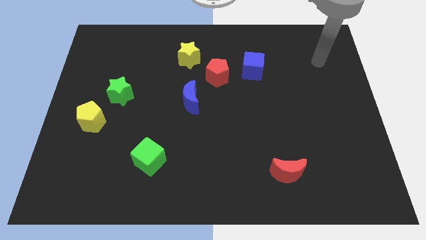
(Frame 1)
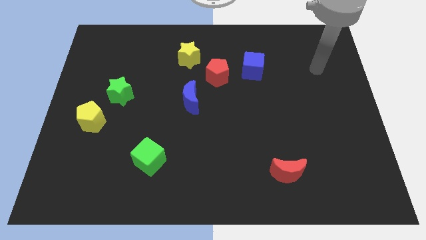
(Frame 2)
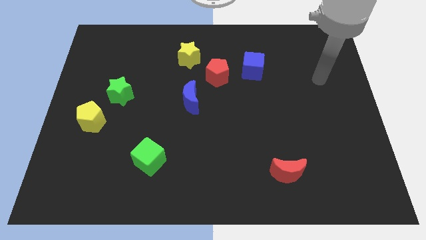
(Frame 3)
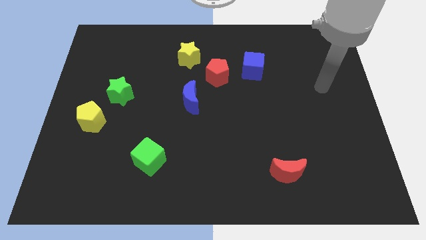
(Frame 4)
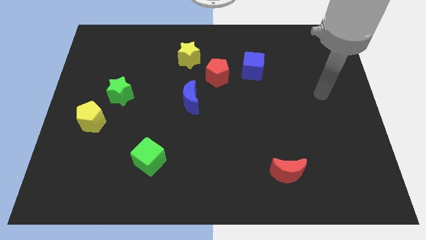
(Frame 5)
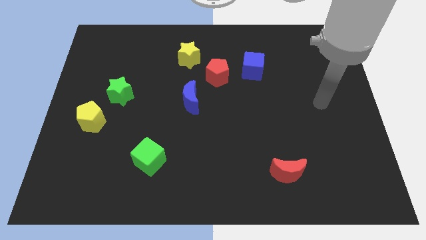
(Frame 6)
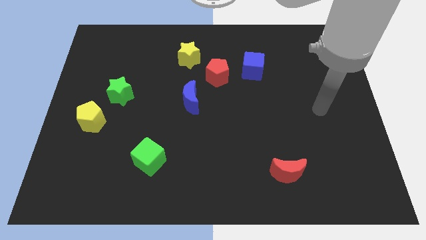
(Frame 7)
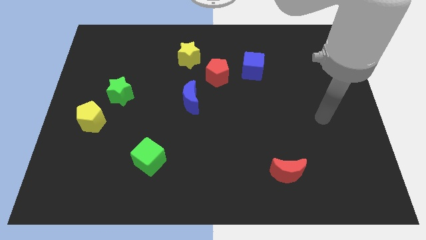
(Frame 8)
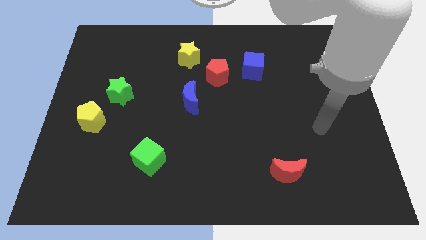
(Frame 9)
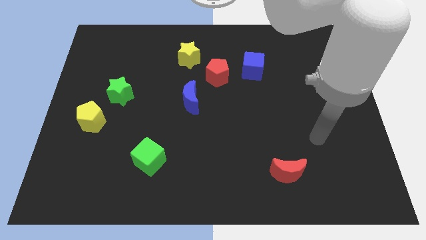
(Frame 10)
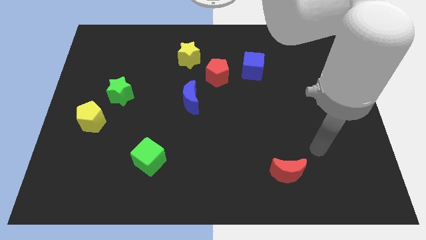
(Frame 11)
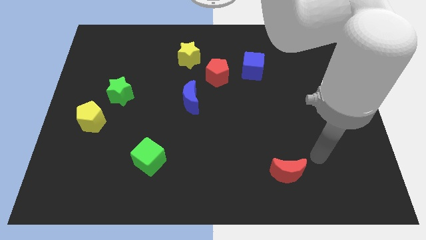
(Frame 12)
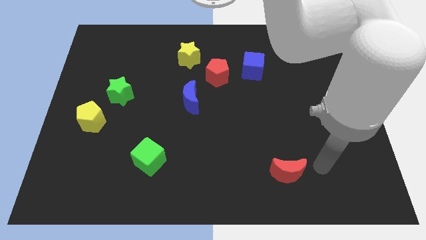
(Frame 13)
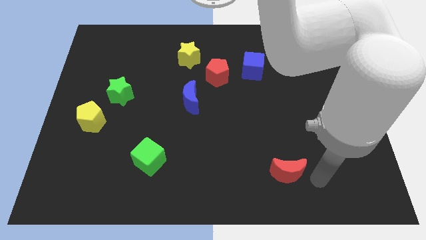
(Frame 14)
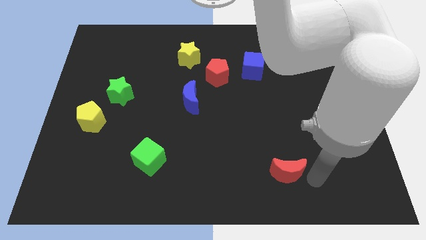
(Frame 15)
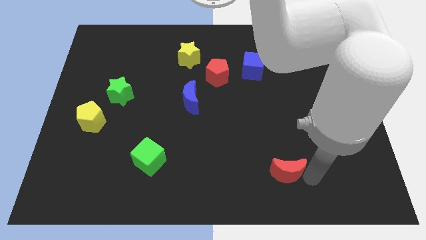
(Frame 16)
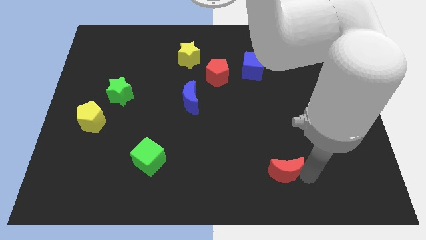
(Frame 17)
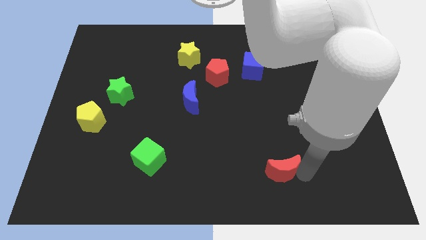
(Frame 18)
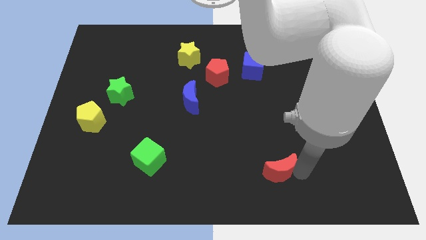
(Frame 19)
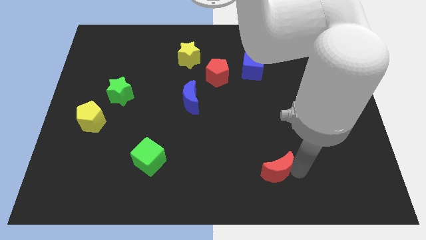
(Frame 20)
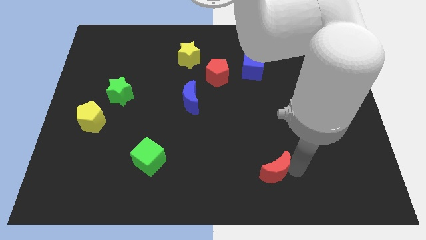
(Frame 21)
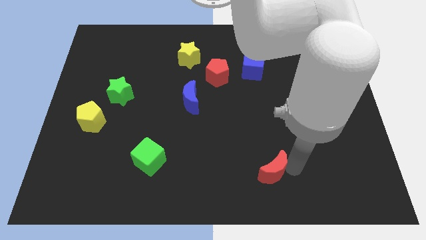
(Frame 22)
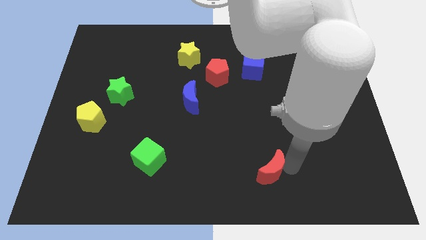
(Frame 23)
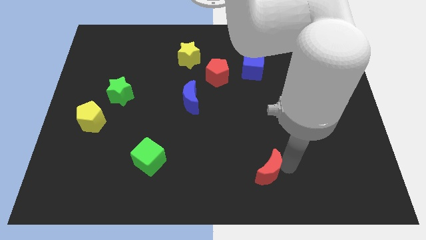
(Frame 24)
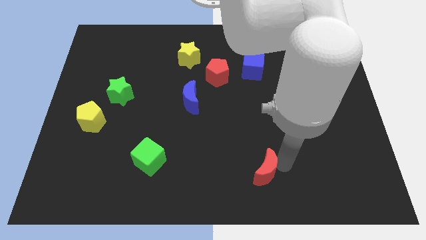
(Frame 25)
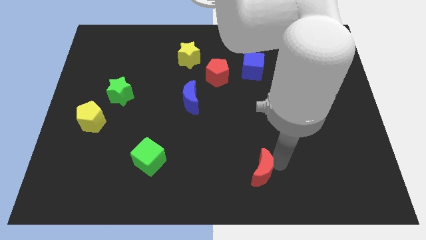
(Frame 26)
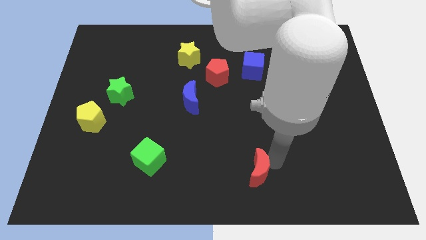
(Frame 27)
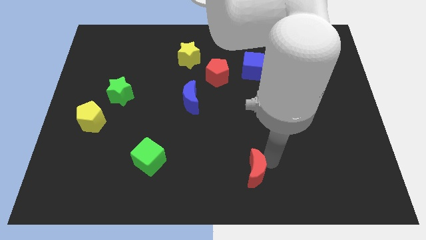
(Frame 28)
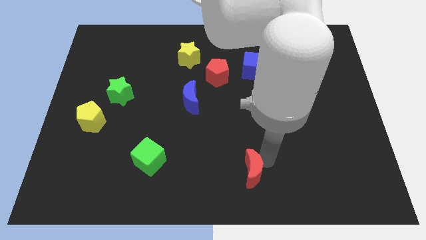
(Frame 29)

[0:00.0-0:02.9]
slide the red moon a little to the left

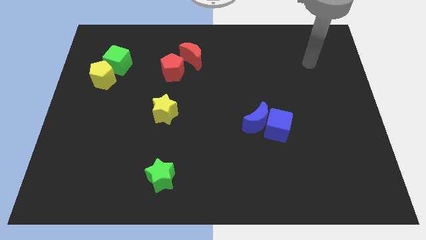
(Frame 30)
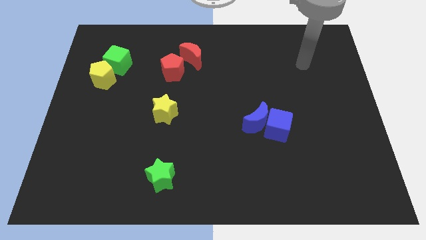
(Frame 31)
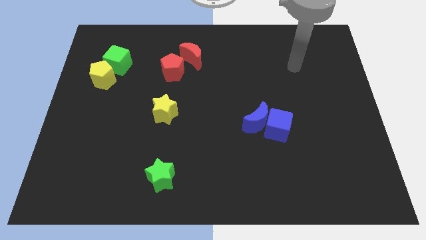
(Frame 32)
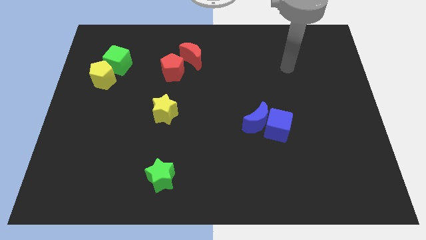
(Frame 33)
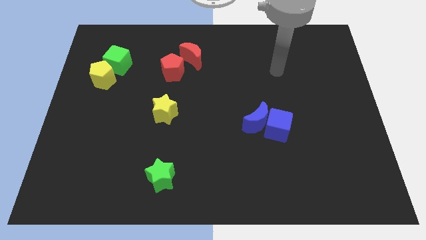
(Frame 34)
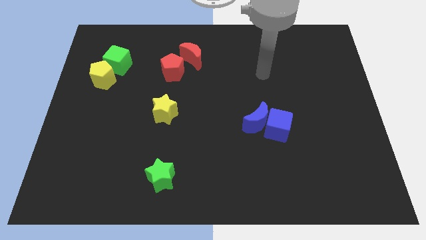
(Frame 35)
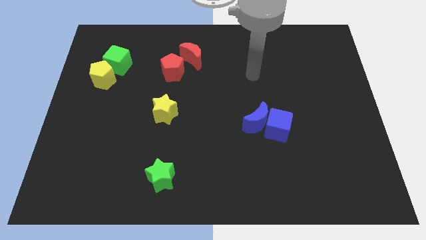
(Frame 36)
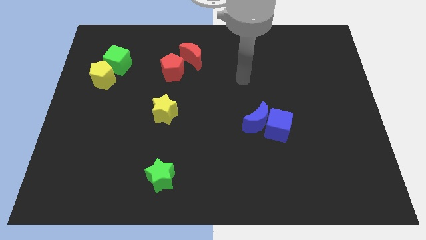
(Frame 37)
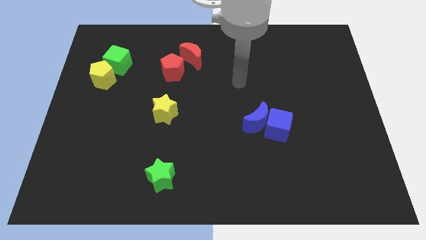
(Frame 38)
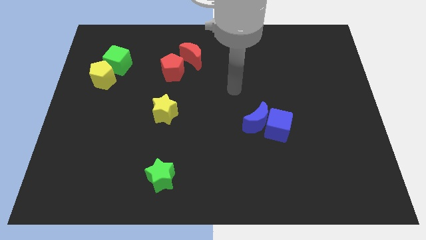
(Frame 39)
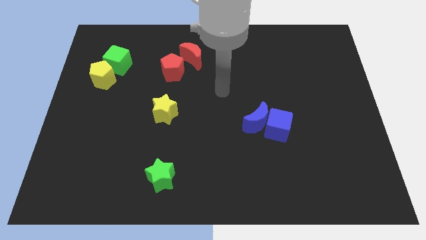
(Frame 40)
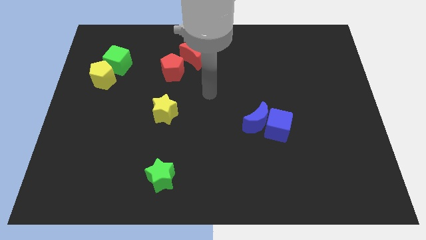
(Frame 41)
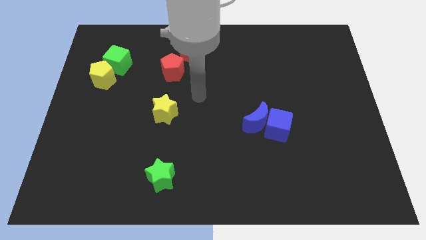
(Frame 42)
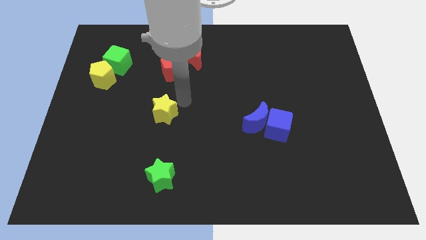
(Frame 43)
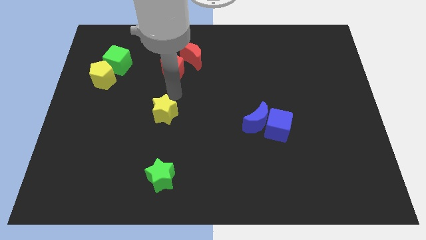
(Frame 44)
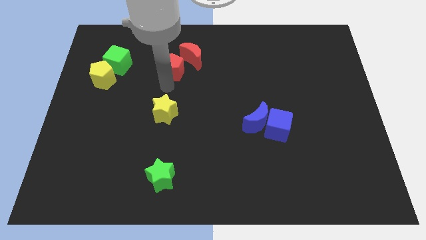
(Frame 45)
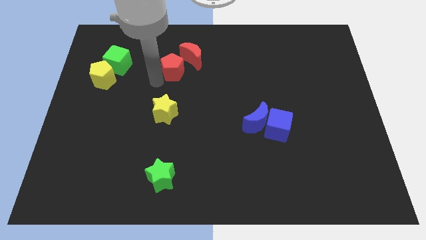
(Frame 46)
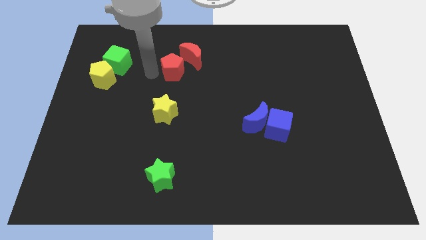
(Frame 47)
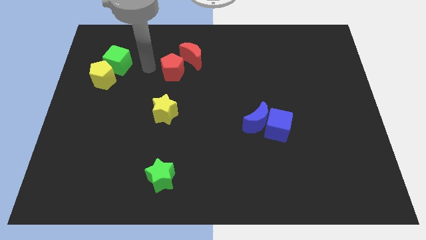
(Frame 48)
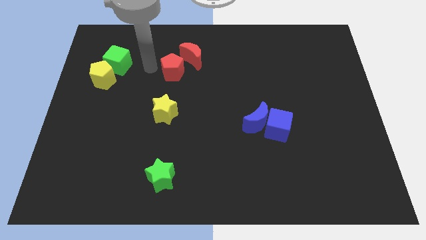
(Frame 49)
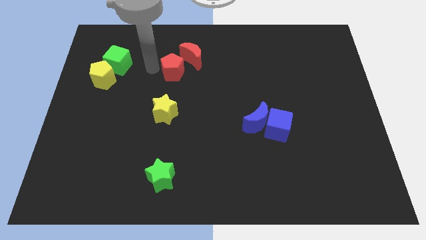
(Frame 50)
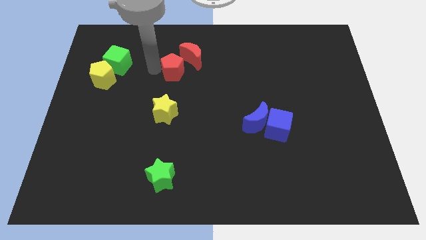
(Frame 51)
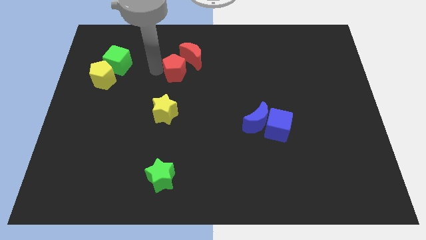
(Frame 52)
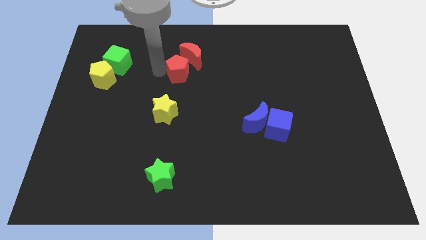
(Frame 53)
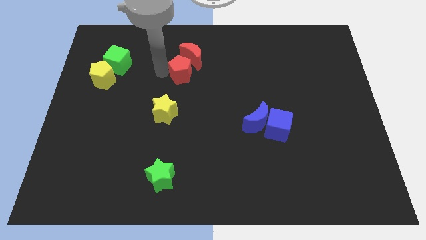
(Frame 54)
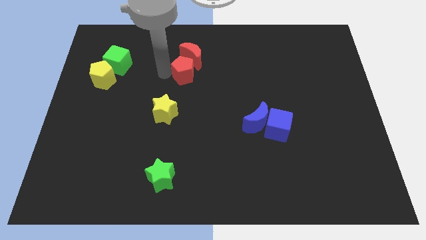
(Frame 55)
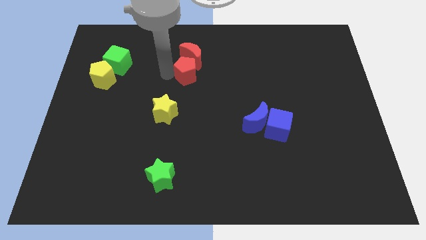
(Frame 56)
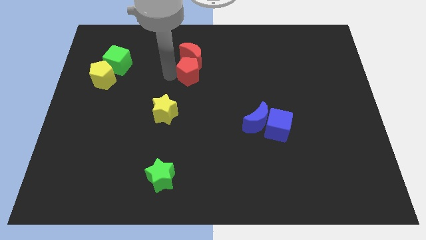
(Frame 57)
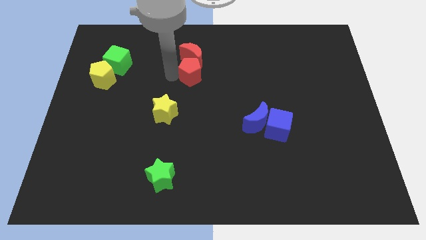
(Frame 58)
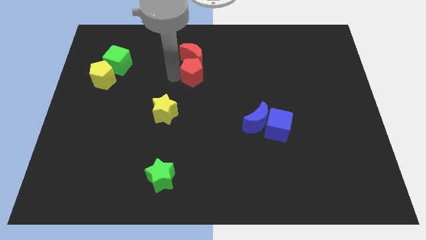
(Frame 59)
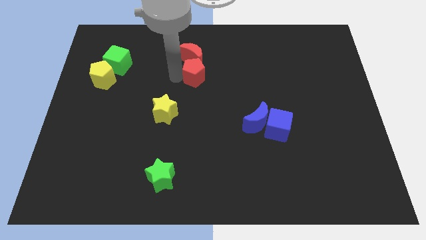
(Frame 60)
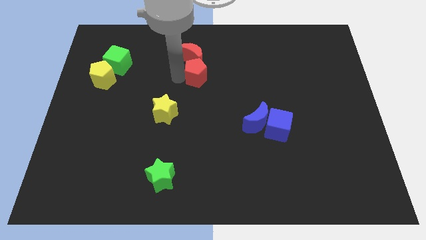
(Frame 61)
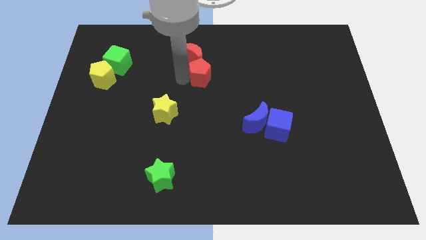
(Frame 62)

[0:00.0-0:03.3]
move the red pentagon a little bit right

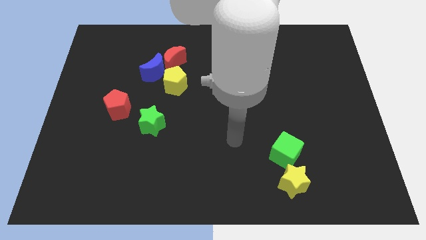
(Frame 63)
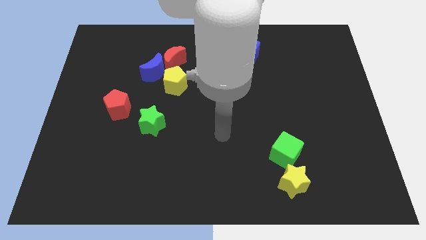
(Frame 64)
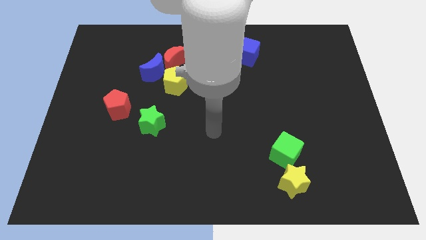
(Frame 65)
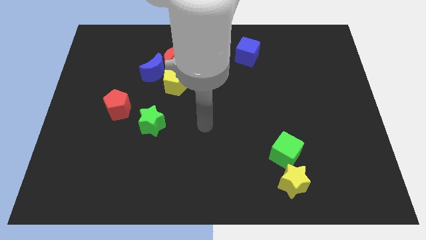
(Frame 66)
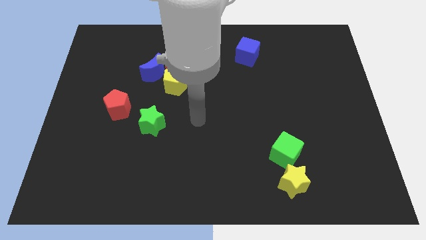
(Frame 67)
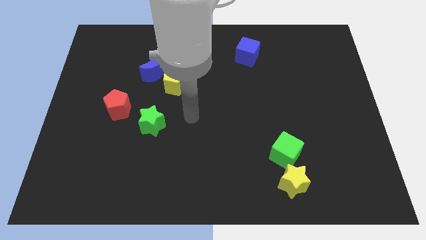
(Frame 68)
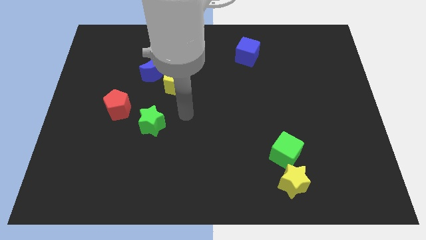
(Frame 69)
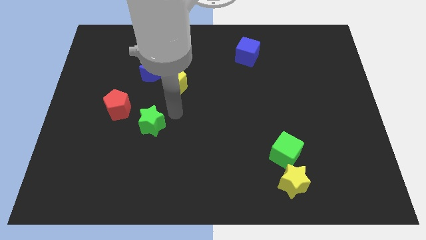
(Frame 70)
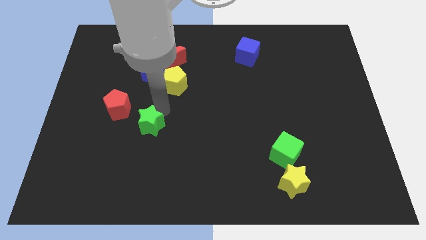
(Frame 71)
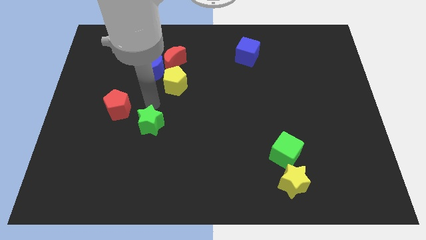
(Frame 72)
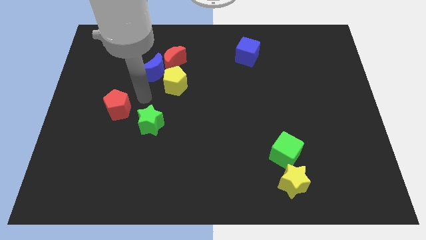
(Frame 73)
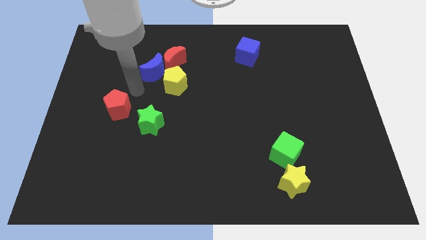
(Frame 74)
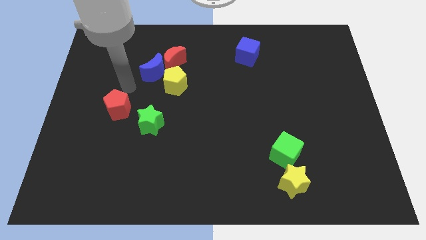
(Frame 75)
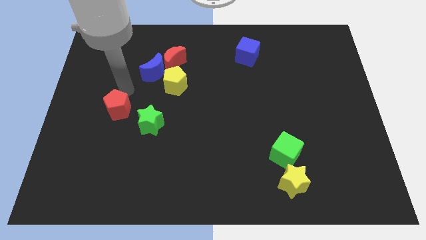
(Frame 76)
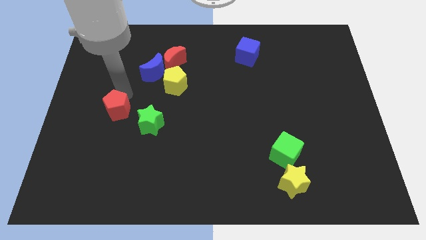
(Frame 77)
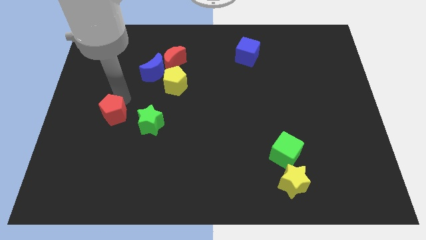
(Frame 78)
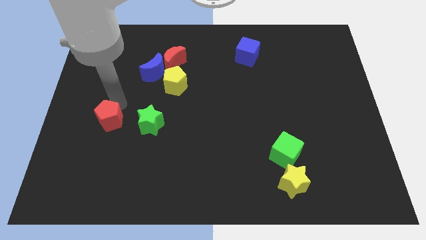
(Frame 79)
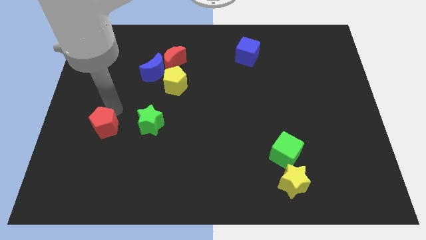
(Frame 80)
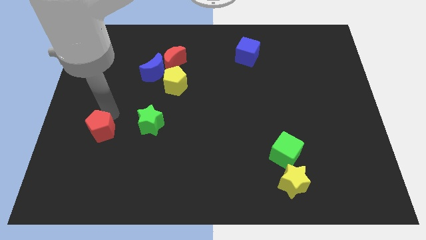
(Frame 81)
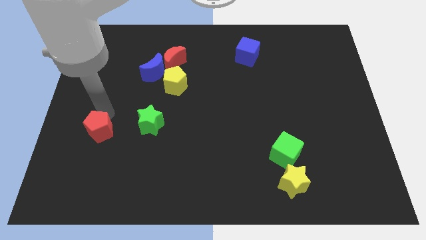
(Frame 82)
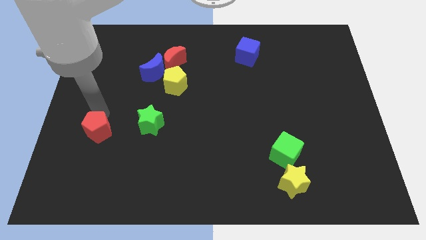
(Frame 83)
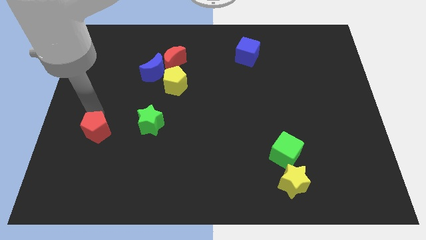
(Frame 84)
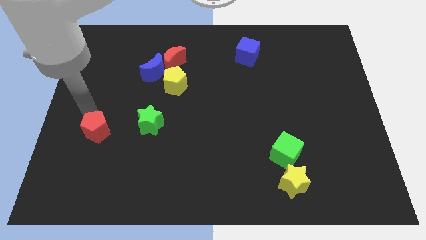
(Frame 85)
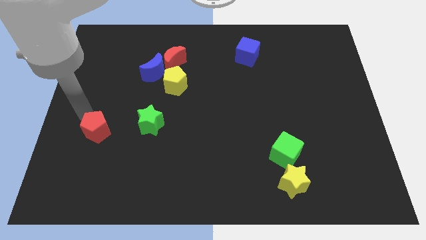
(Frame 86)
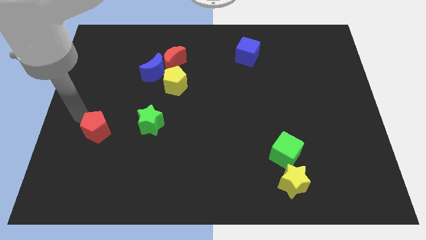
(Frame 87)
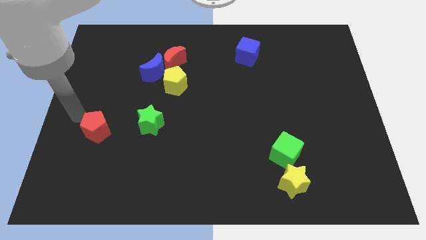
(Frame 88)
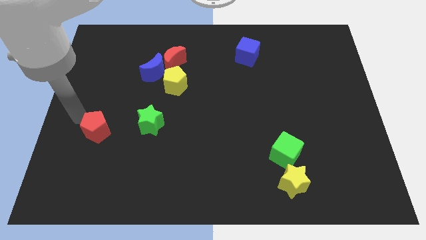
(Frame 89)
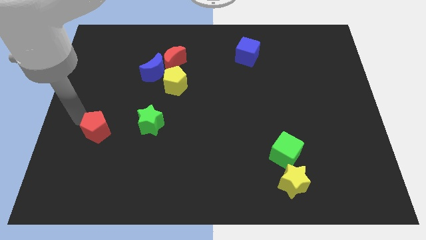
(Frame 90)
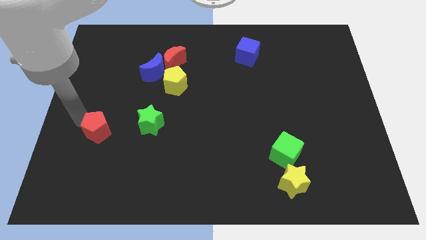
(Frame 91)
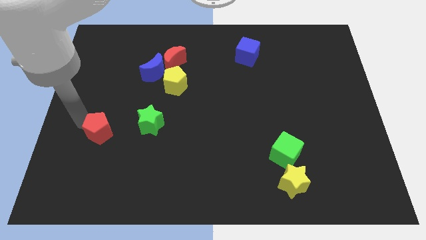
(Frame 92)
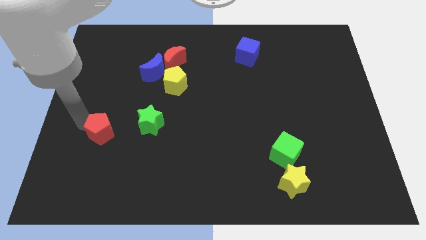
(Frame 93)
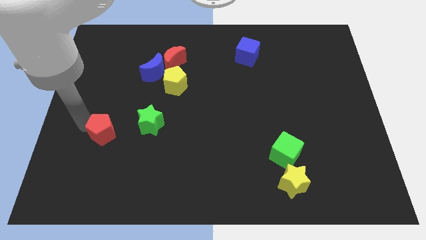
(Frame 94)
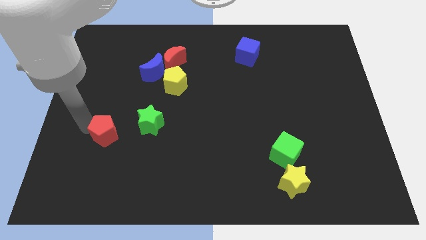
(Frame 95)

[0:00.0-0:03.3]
push the red pentagon downwards a little
